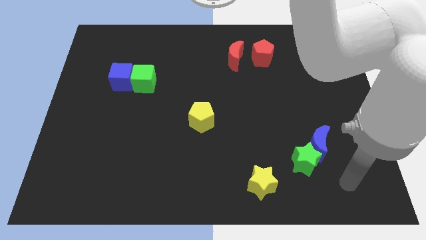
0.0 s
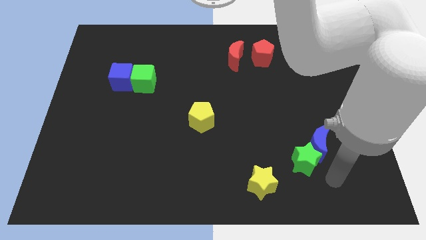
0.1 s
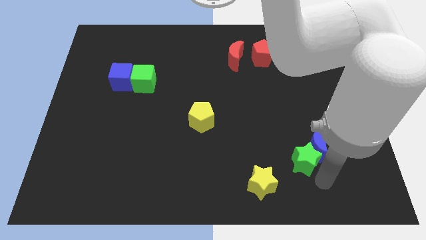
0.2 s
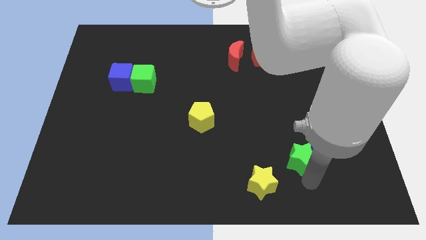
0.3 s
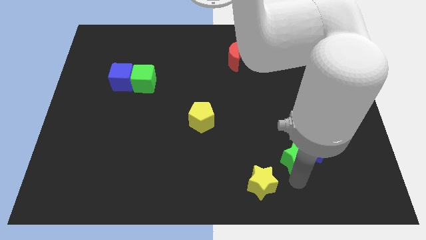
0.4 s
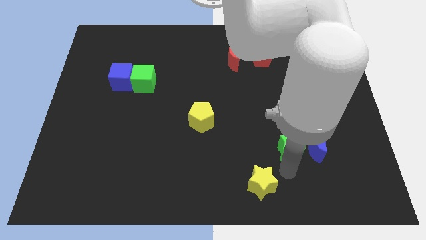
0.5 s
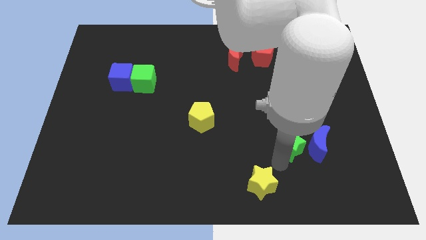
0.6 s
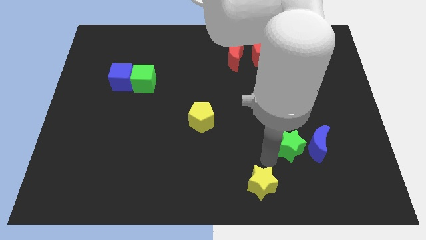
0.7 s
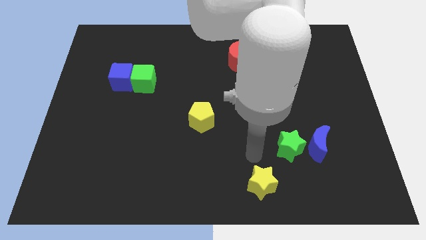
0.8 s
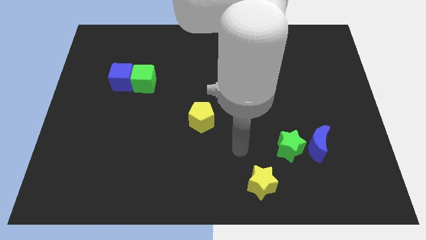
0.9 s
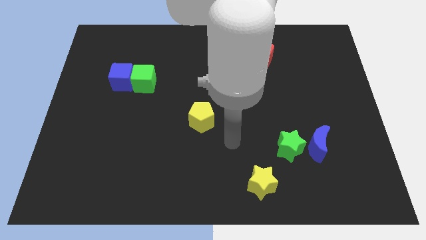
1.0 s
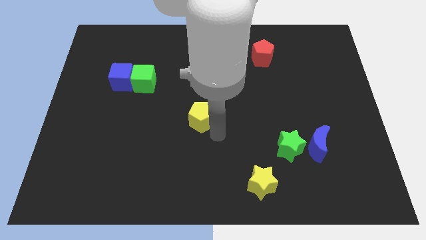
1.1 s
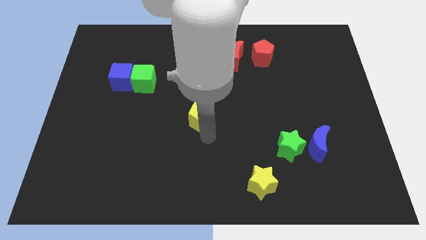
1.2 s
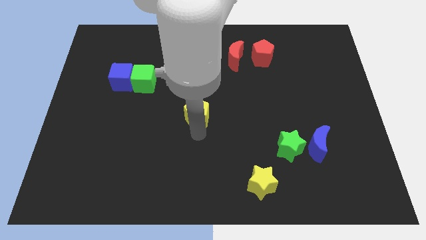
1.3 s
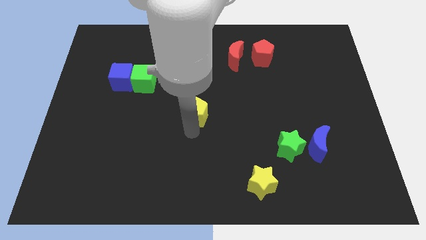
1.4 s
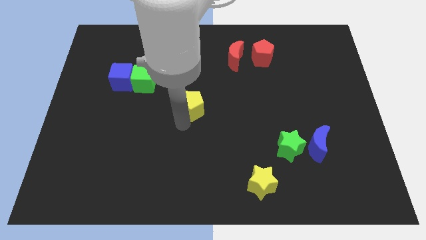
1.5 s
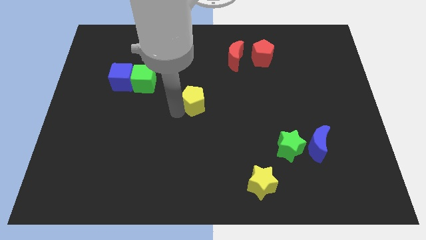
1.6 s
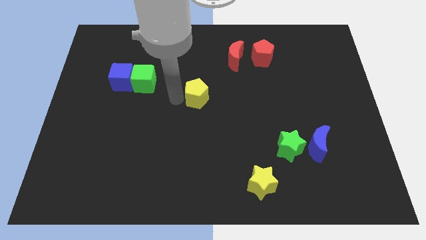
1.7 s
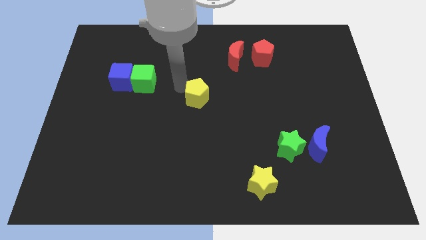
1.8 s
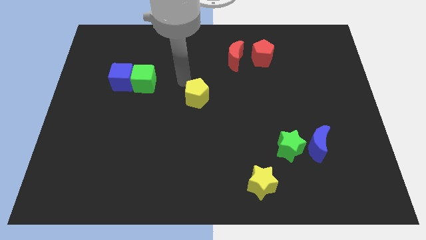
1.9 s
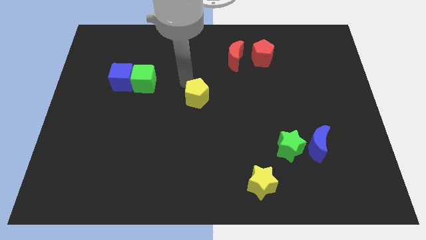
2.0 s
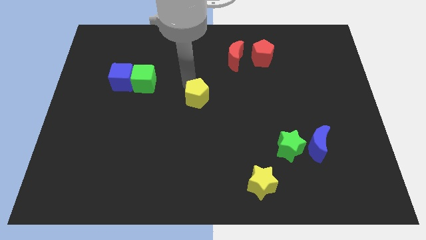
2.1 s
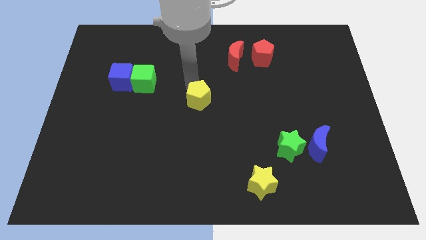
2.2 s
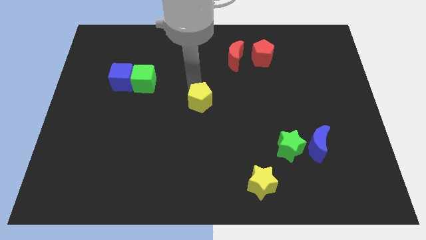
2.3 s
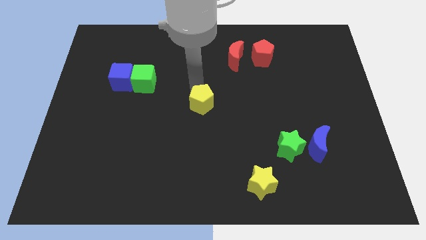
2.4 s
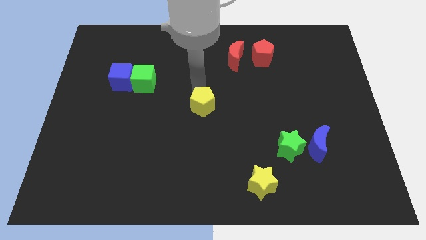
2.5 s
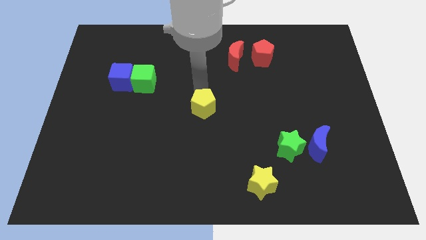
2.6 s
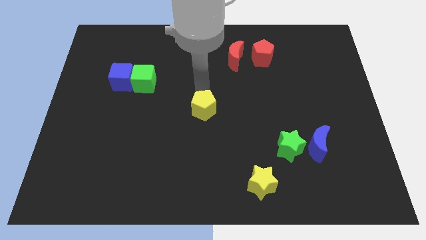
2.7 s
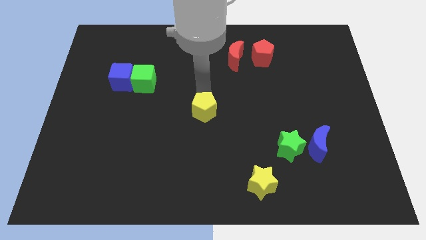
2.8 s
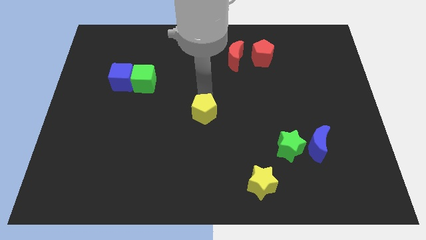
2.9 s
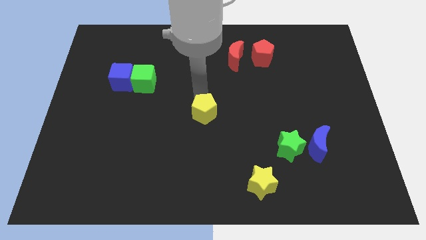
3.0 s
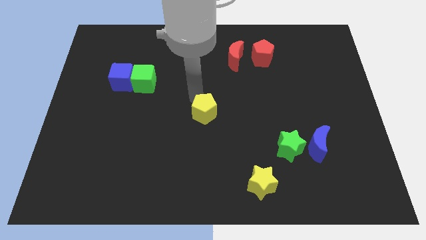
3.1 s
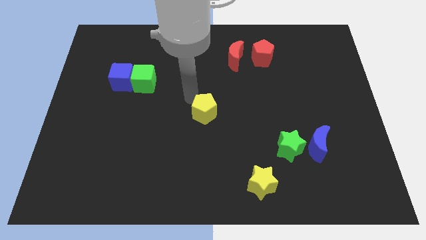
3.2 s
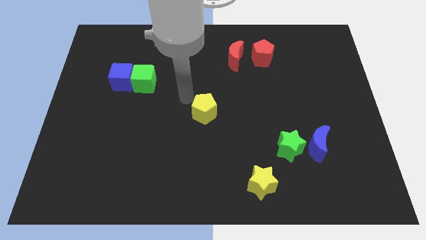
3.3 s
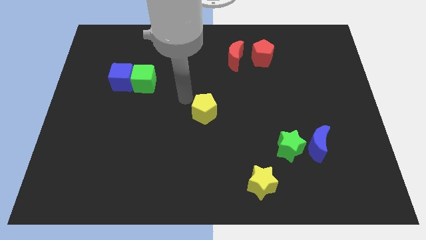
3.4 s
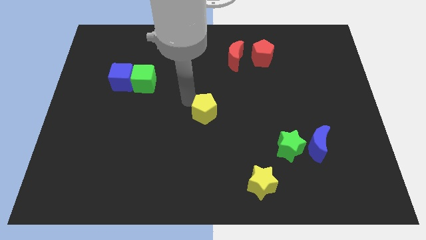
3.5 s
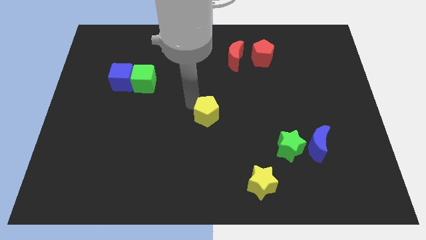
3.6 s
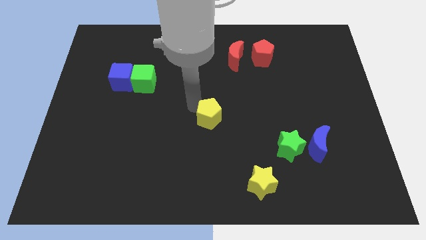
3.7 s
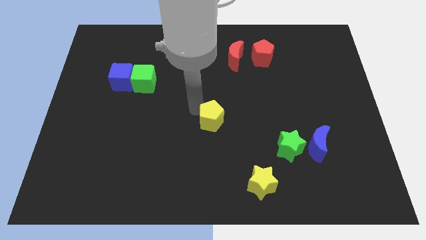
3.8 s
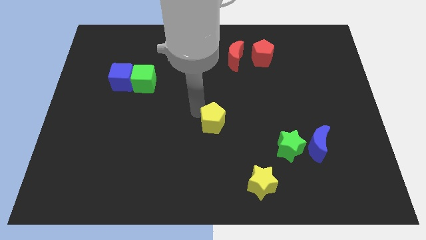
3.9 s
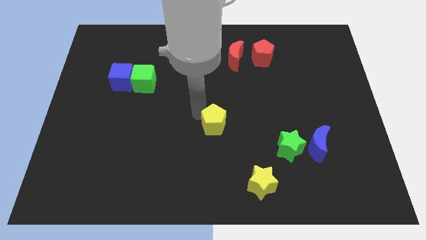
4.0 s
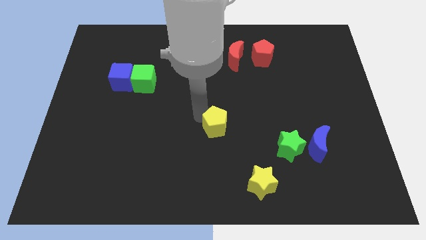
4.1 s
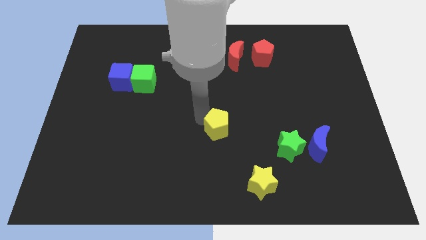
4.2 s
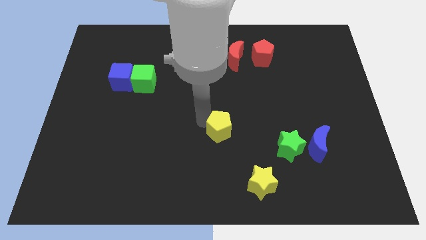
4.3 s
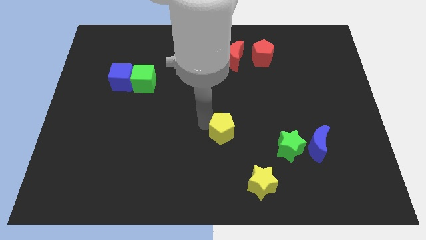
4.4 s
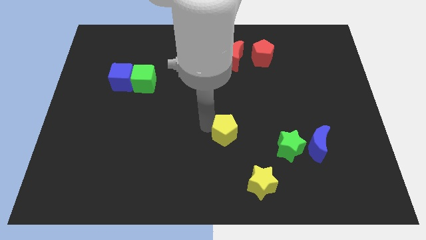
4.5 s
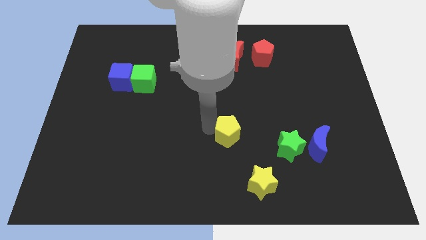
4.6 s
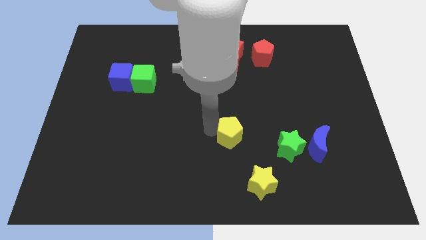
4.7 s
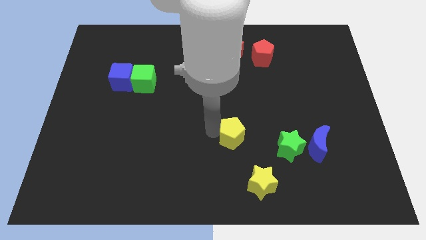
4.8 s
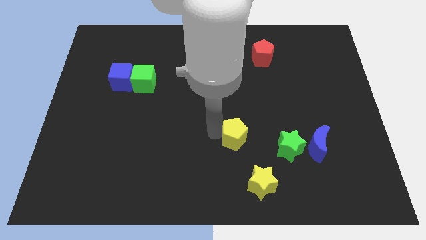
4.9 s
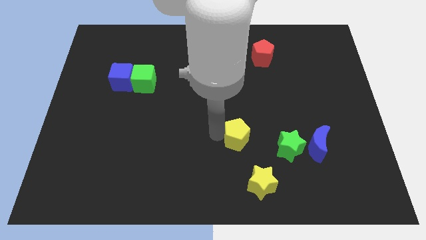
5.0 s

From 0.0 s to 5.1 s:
slightly slide the yellow pentagon right

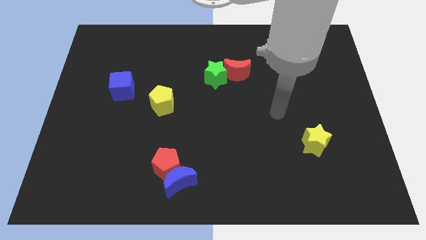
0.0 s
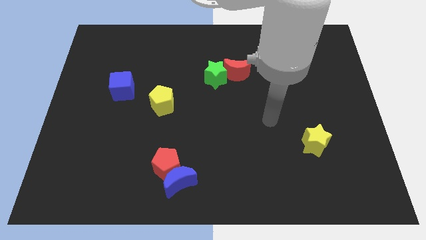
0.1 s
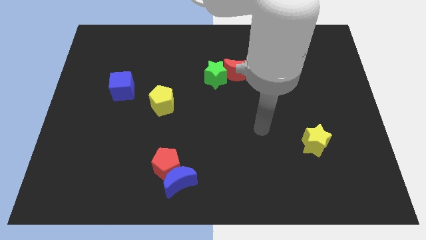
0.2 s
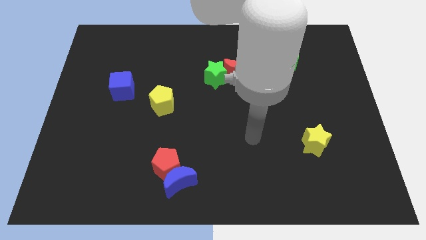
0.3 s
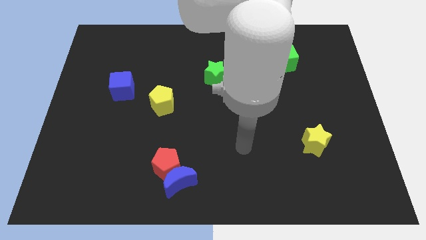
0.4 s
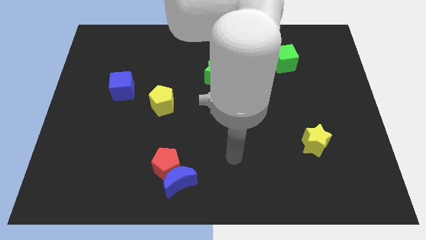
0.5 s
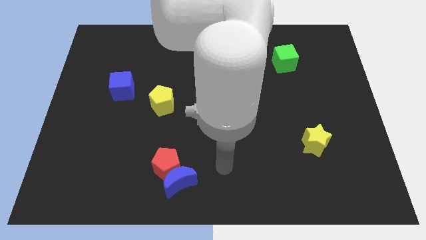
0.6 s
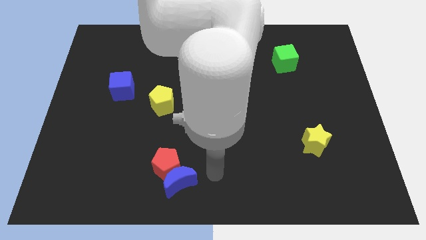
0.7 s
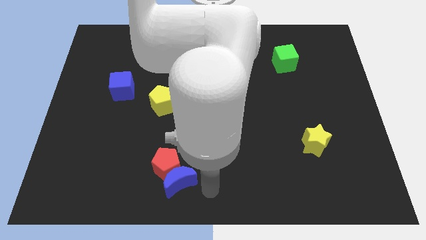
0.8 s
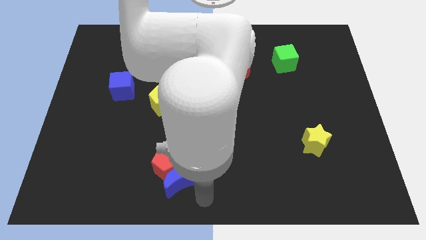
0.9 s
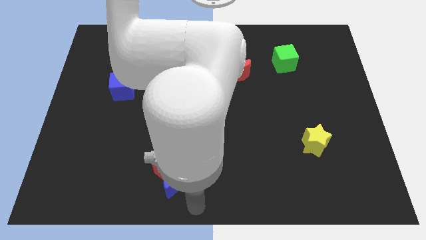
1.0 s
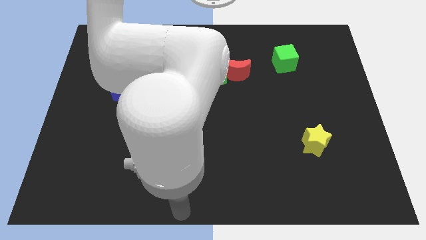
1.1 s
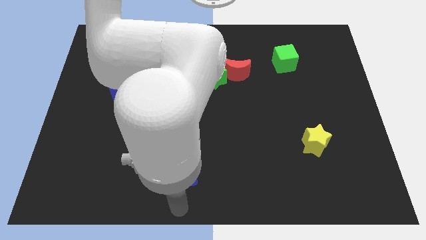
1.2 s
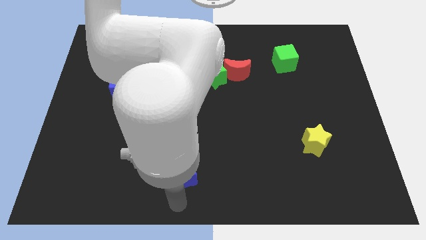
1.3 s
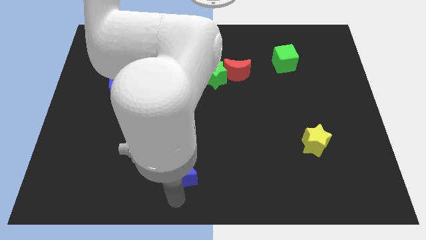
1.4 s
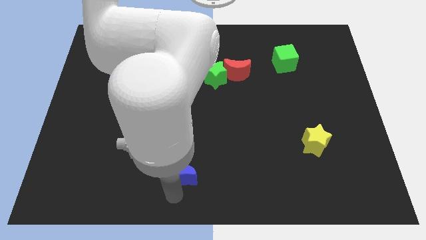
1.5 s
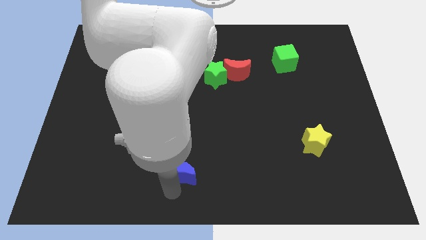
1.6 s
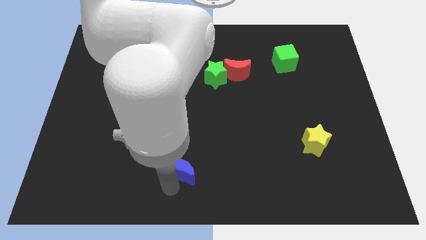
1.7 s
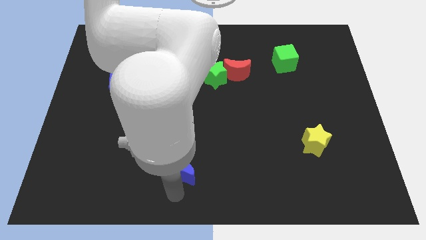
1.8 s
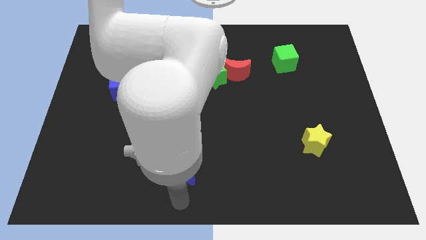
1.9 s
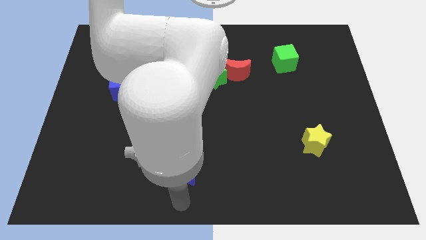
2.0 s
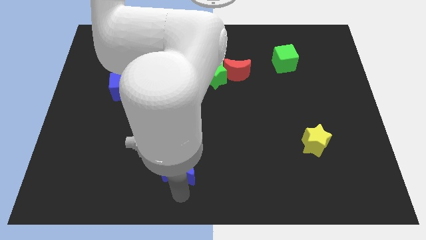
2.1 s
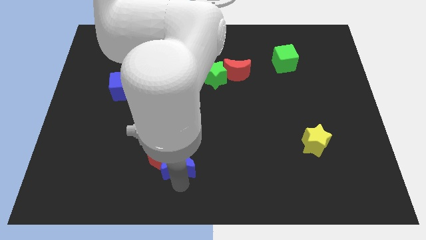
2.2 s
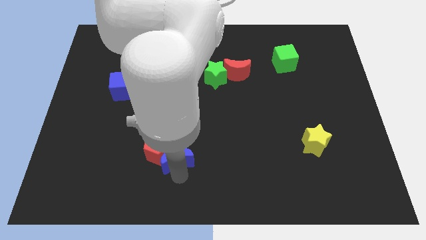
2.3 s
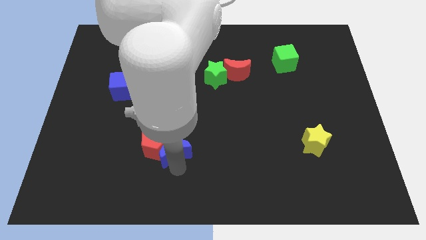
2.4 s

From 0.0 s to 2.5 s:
slightly push the blue moon upwards

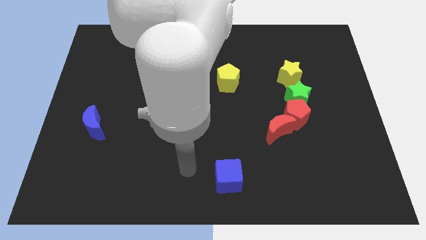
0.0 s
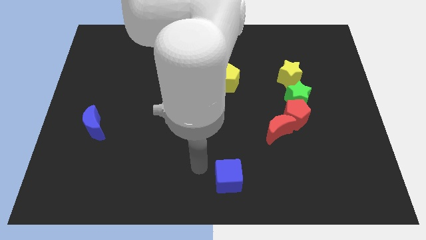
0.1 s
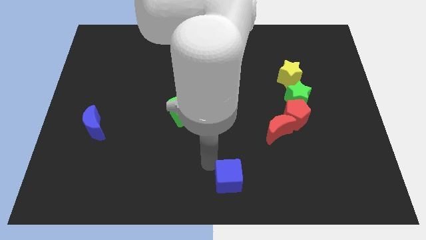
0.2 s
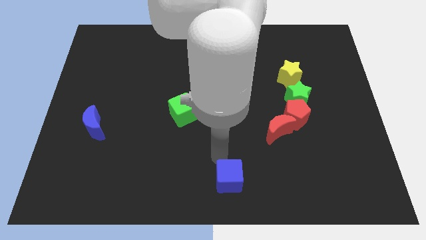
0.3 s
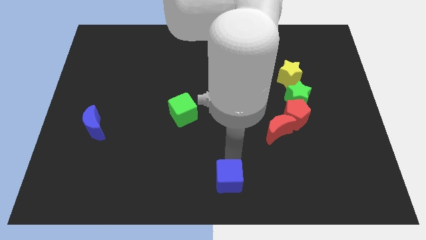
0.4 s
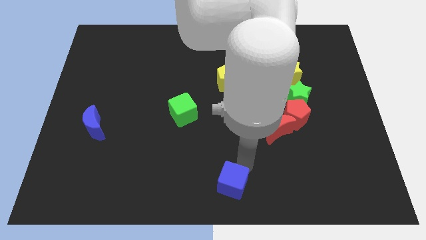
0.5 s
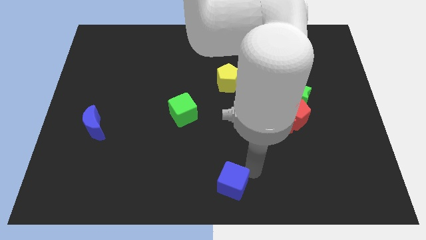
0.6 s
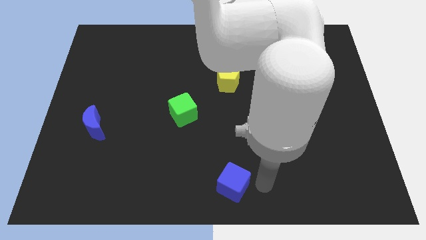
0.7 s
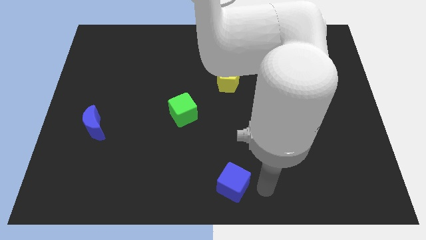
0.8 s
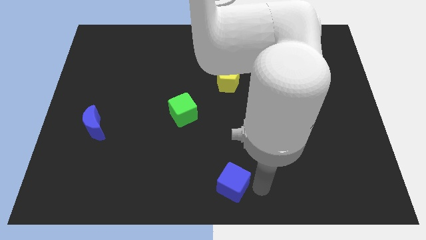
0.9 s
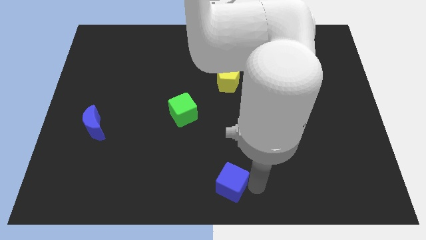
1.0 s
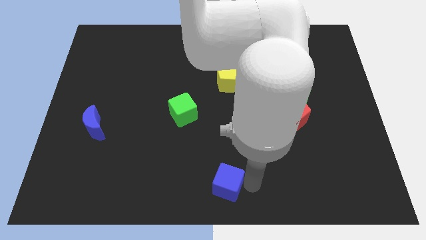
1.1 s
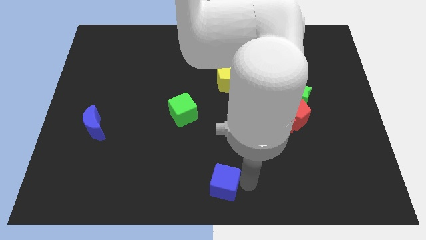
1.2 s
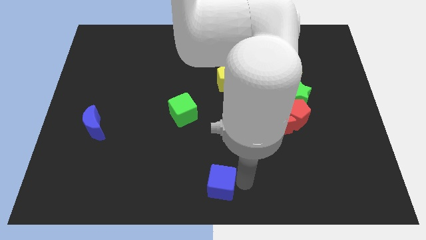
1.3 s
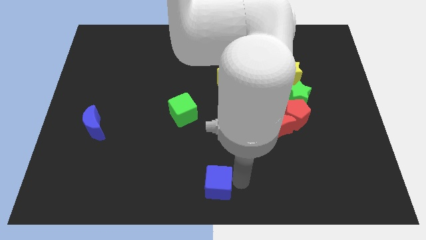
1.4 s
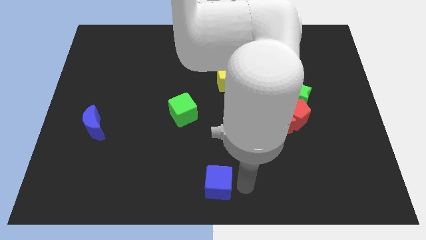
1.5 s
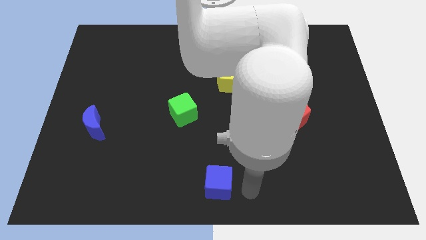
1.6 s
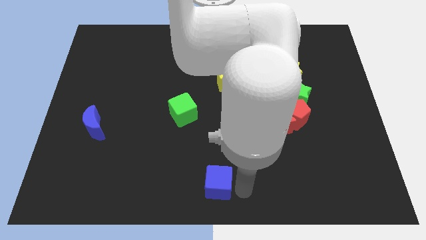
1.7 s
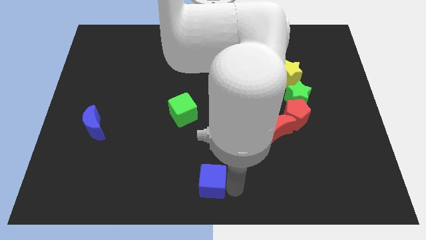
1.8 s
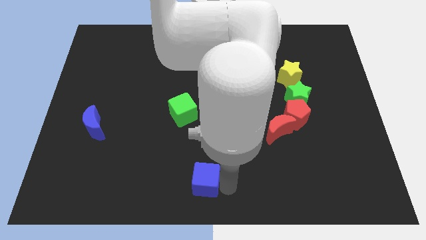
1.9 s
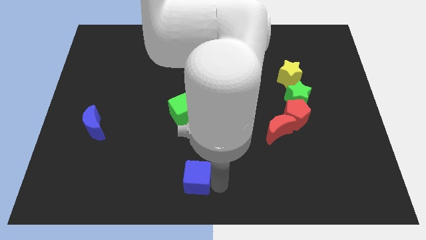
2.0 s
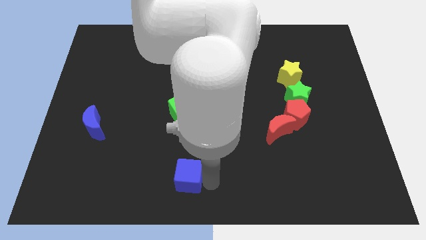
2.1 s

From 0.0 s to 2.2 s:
slide the blue cube slightly to the left
